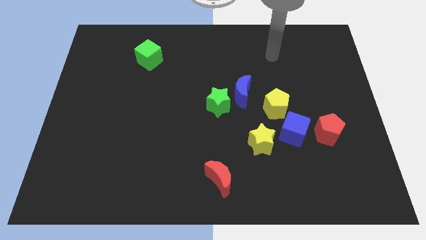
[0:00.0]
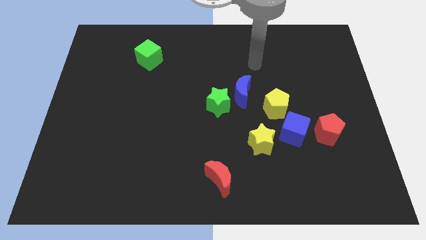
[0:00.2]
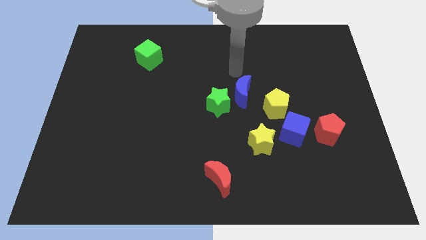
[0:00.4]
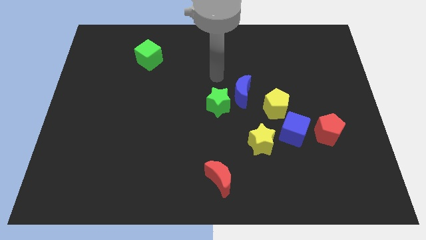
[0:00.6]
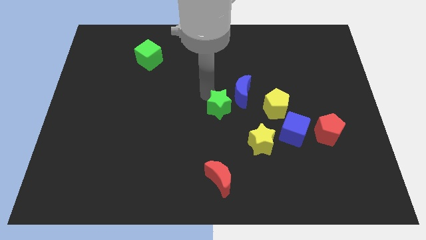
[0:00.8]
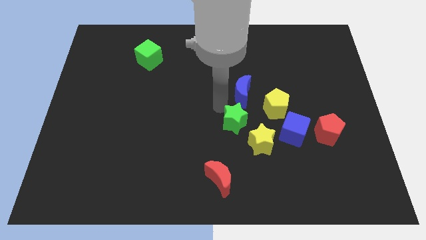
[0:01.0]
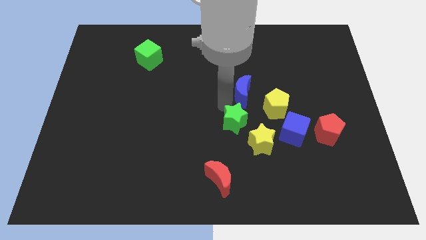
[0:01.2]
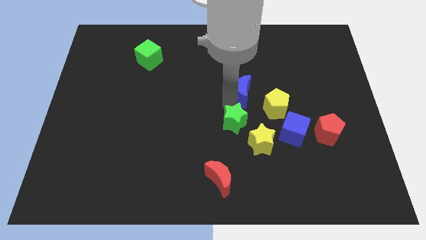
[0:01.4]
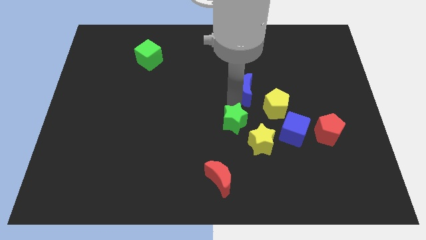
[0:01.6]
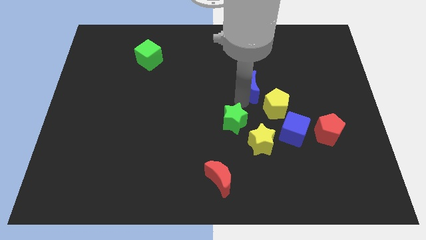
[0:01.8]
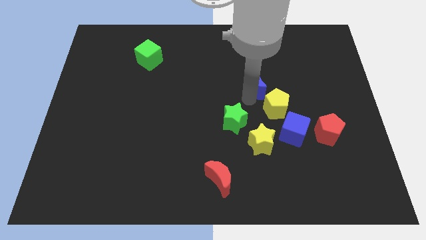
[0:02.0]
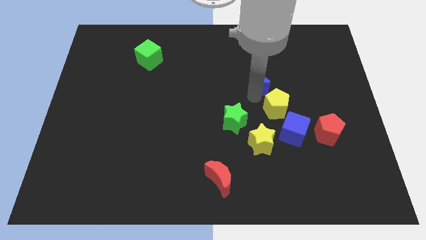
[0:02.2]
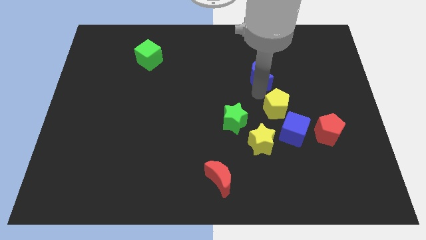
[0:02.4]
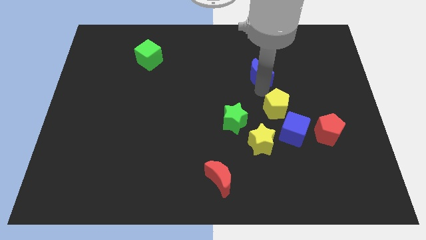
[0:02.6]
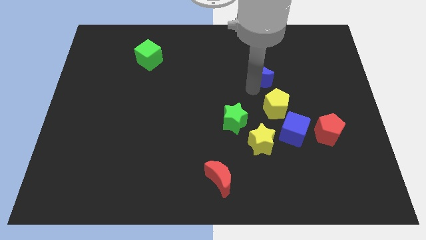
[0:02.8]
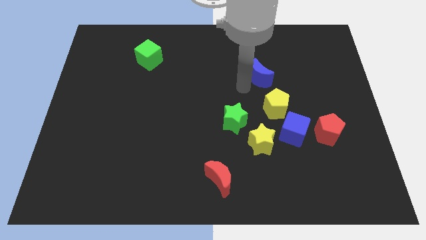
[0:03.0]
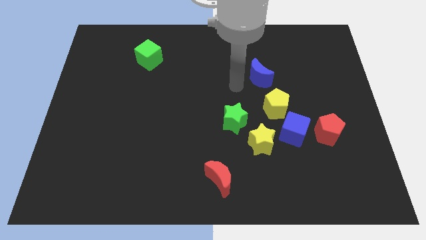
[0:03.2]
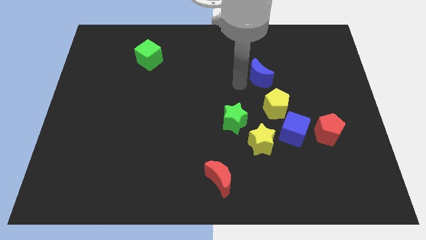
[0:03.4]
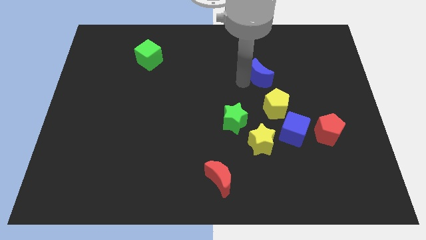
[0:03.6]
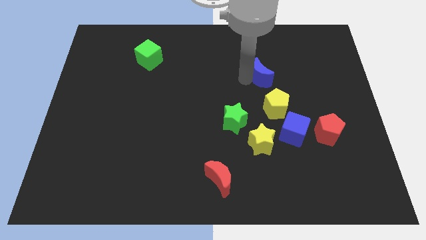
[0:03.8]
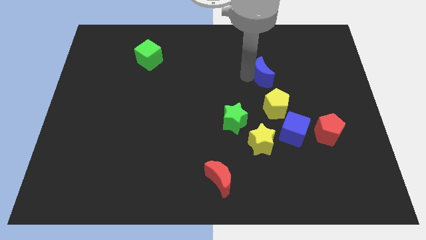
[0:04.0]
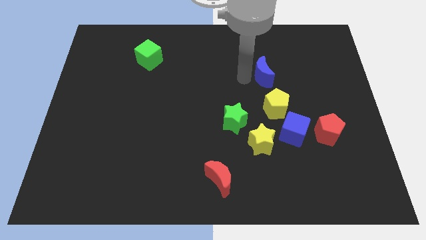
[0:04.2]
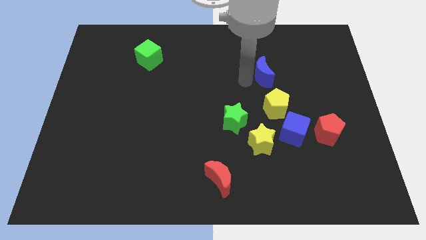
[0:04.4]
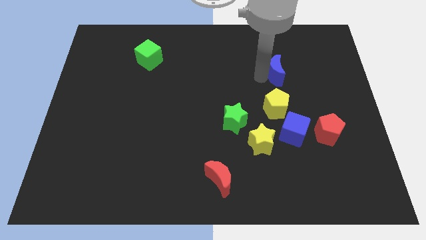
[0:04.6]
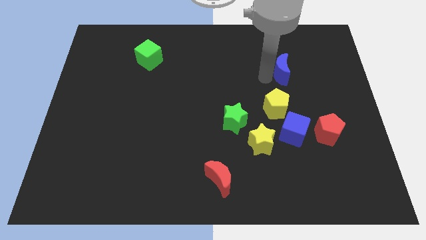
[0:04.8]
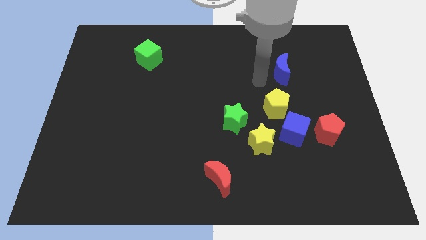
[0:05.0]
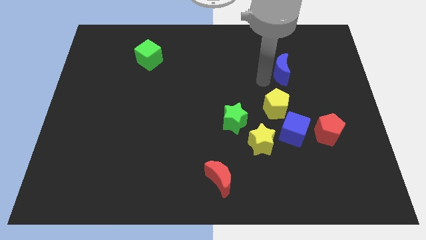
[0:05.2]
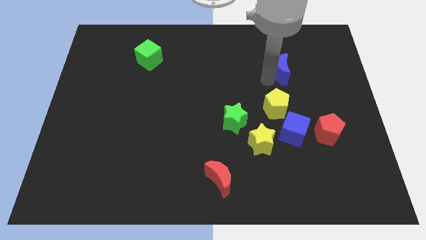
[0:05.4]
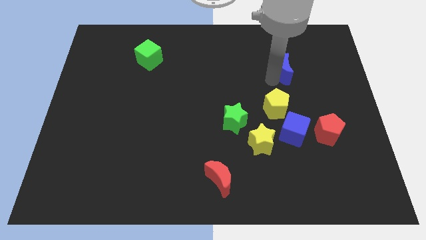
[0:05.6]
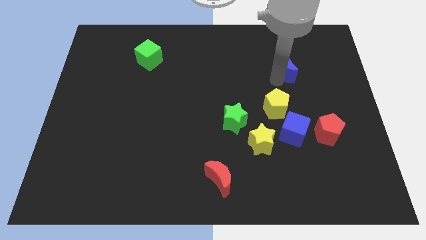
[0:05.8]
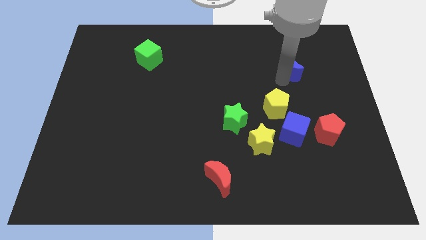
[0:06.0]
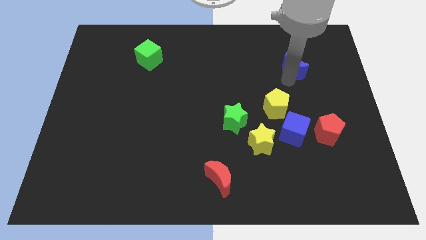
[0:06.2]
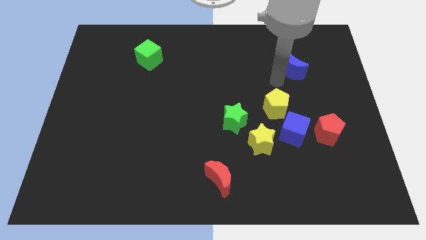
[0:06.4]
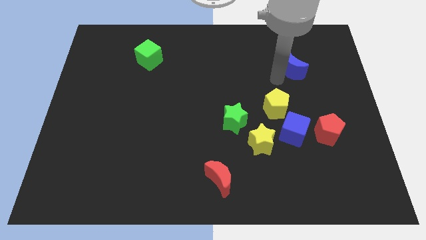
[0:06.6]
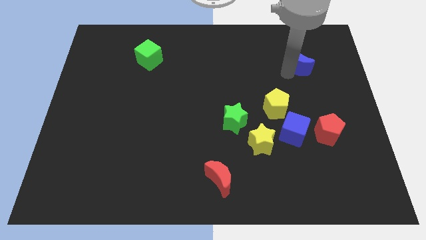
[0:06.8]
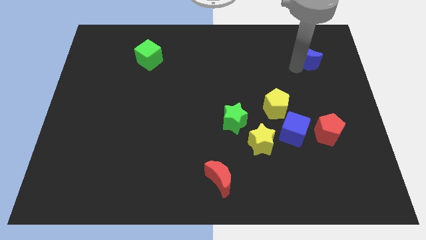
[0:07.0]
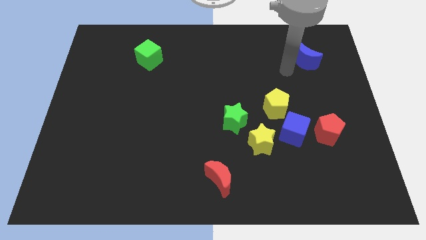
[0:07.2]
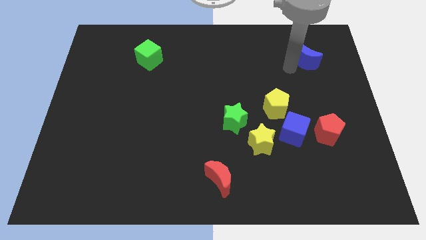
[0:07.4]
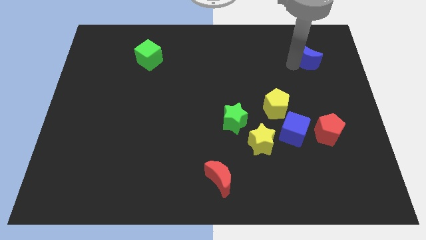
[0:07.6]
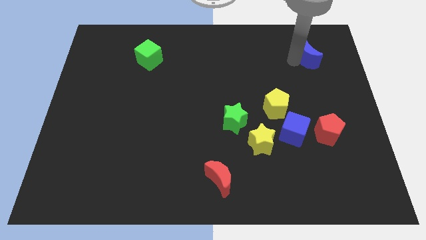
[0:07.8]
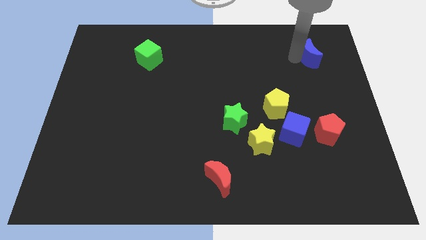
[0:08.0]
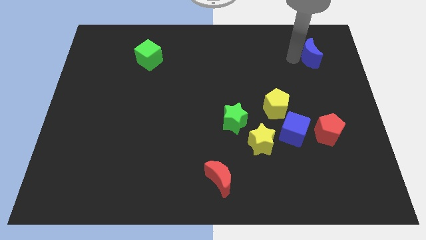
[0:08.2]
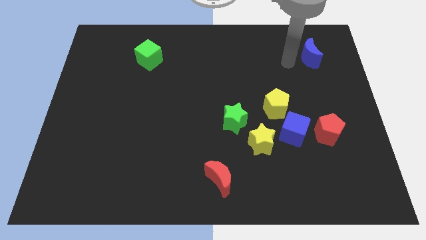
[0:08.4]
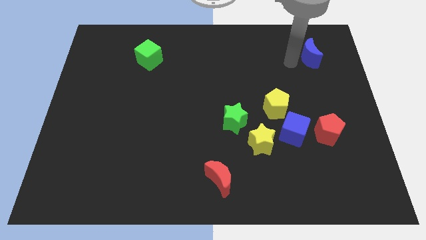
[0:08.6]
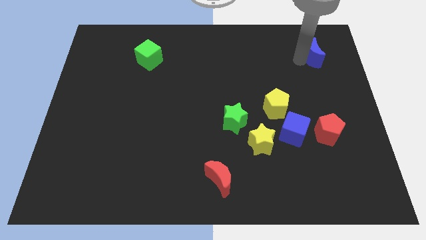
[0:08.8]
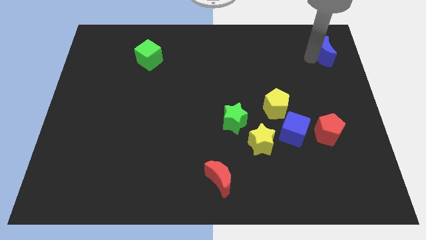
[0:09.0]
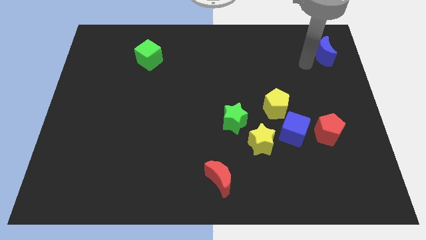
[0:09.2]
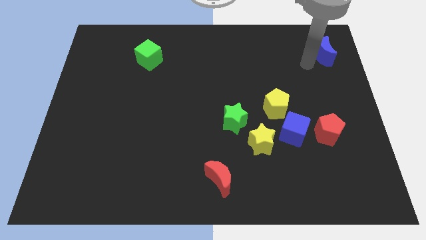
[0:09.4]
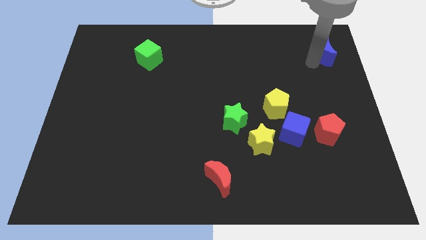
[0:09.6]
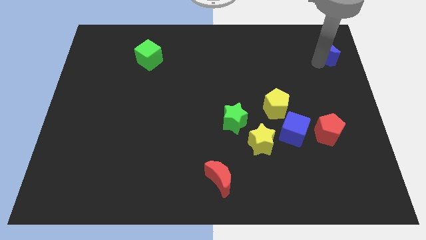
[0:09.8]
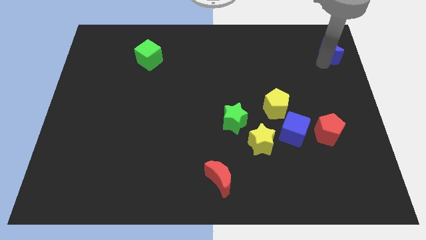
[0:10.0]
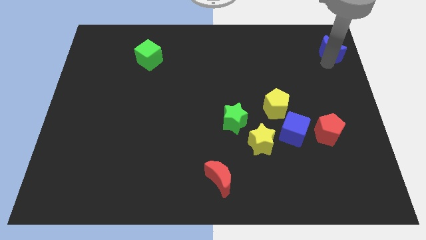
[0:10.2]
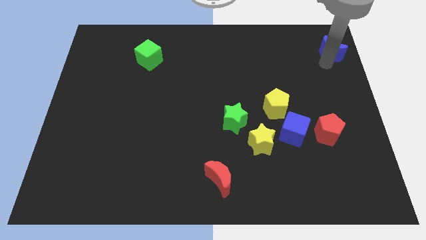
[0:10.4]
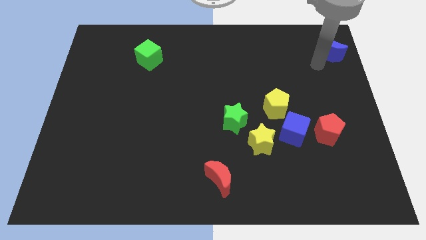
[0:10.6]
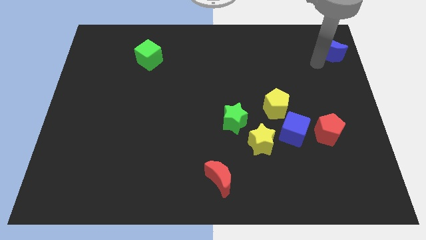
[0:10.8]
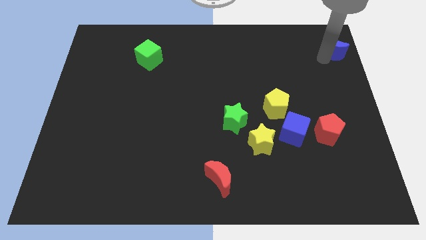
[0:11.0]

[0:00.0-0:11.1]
push the blue moon to the top right

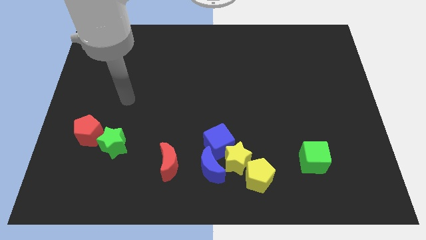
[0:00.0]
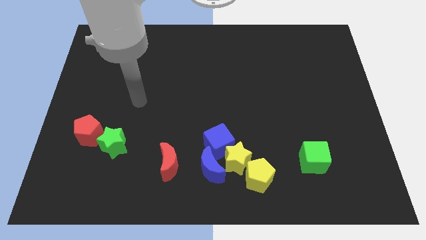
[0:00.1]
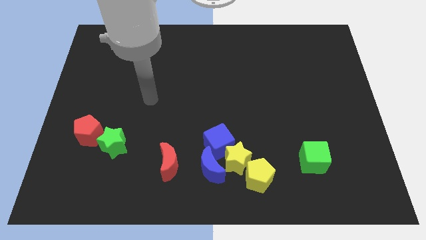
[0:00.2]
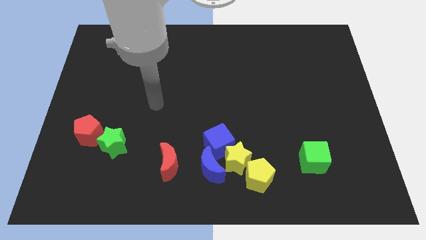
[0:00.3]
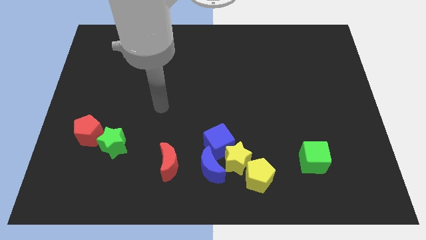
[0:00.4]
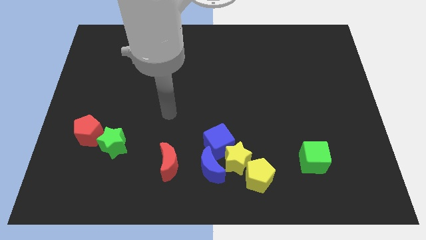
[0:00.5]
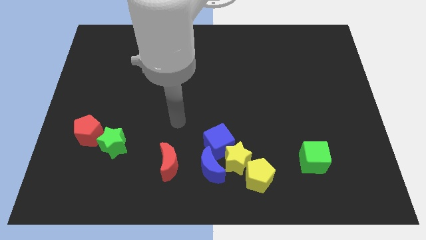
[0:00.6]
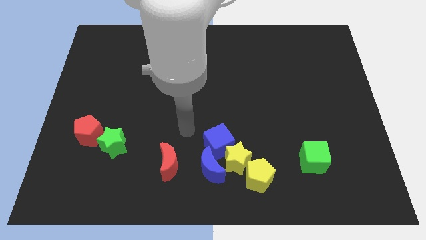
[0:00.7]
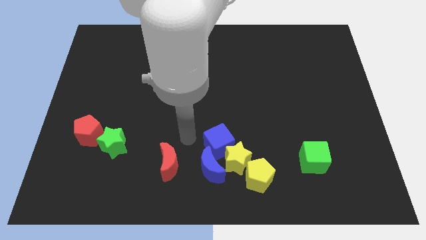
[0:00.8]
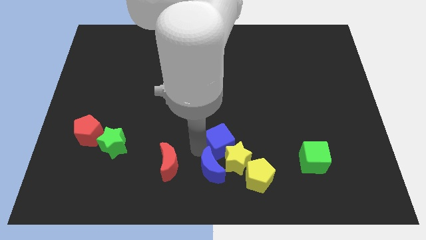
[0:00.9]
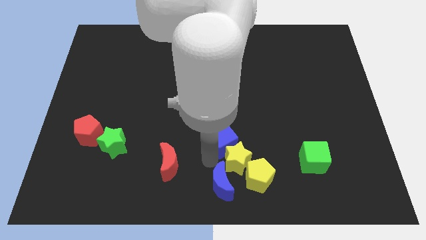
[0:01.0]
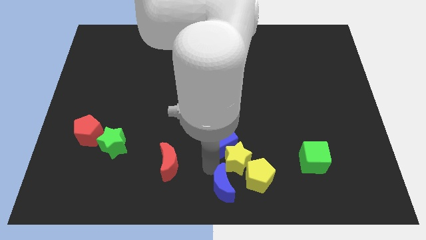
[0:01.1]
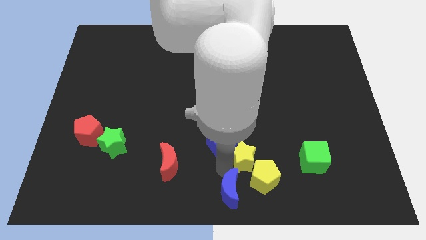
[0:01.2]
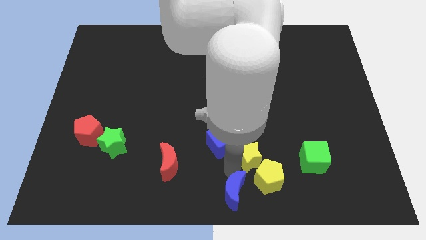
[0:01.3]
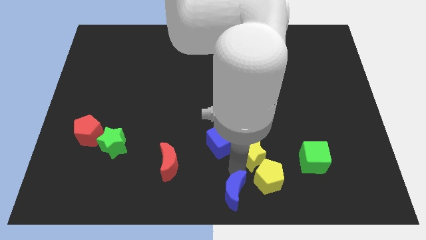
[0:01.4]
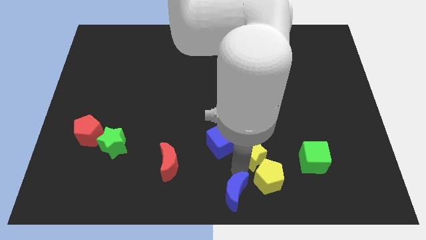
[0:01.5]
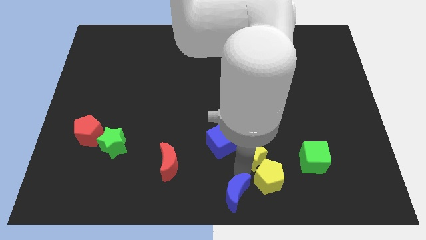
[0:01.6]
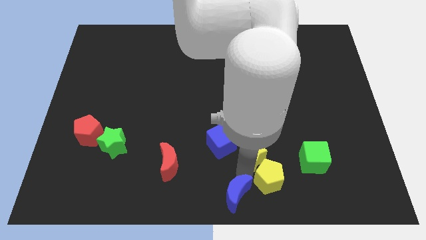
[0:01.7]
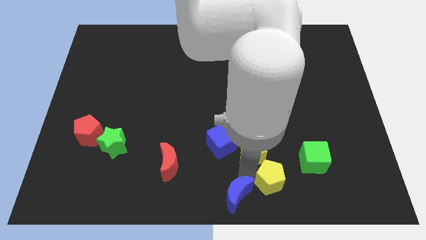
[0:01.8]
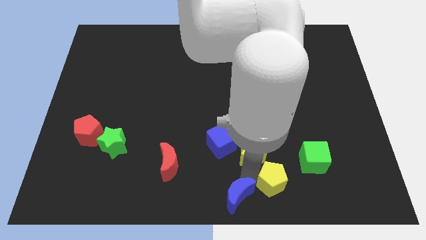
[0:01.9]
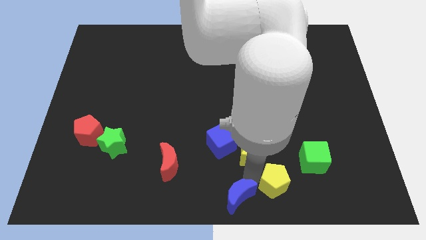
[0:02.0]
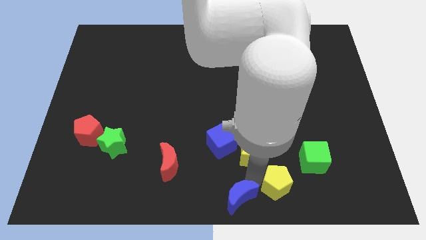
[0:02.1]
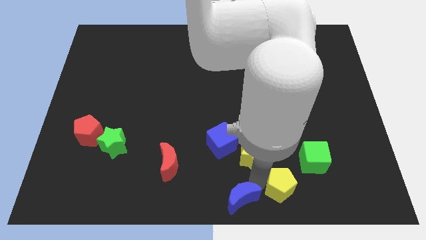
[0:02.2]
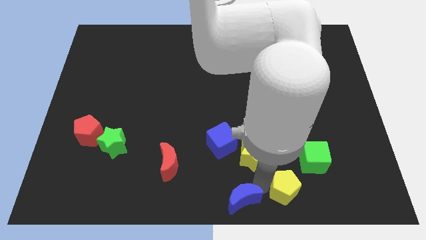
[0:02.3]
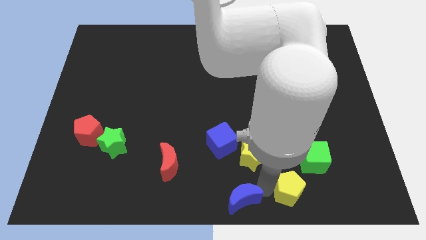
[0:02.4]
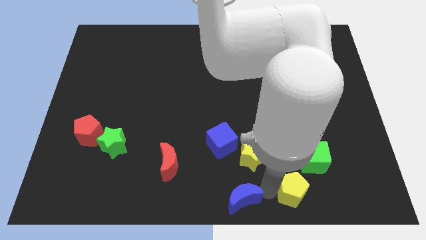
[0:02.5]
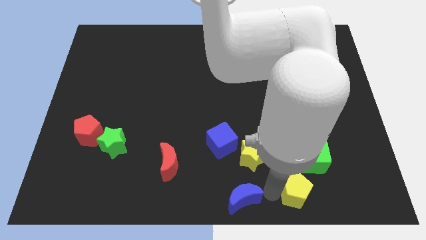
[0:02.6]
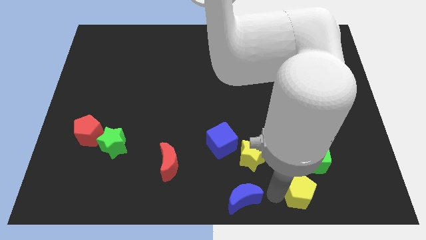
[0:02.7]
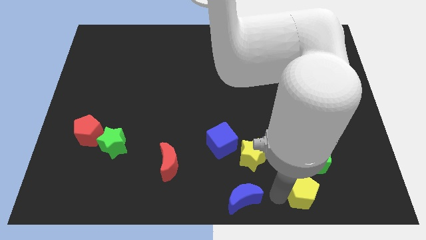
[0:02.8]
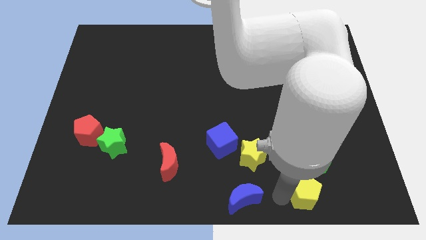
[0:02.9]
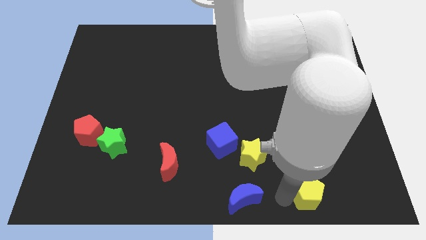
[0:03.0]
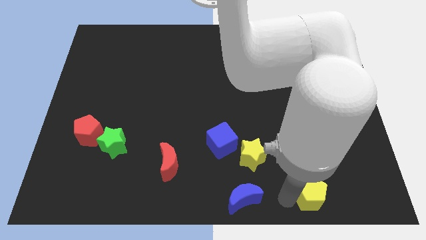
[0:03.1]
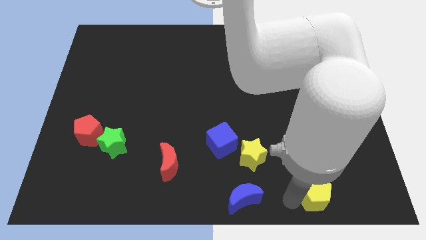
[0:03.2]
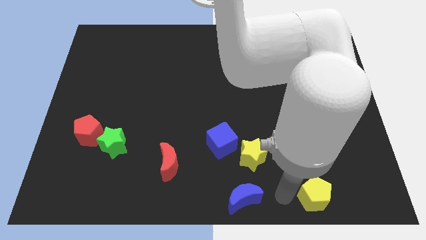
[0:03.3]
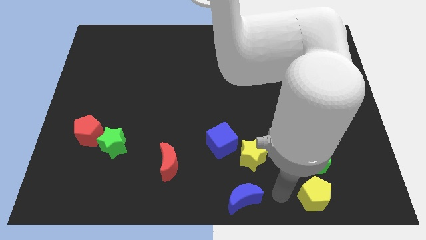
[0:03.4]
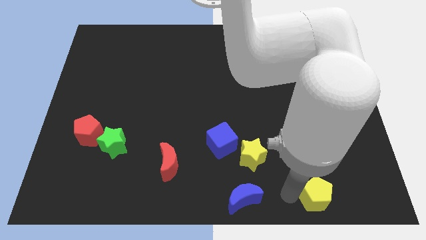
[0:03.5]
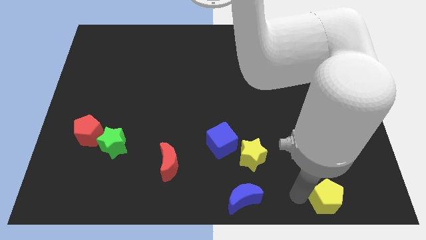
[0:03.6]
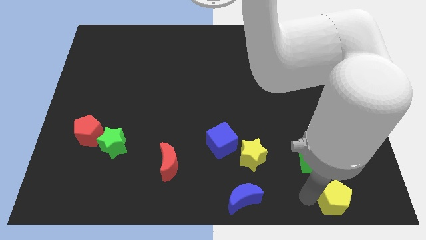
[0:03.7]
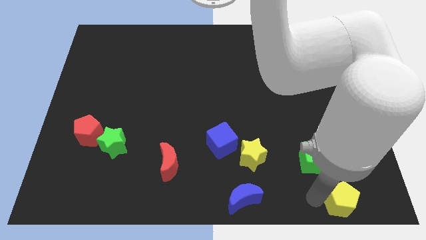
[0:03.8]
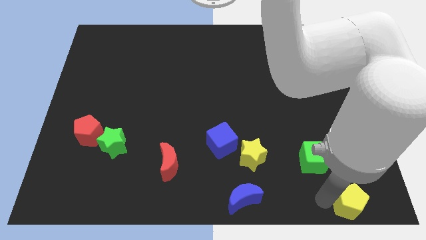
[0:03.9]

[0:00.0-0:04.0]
push the yellow pentagon to the bottom right of the board
